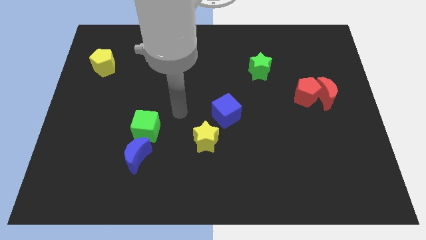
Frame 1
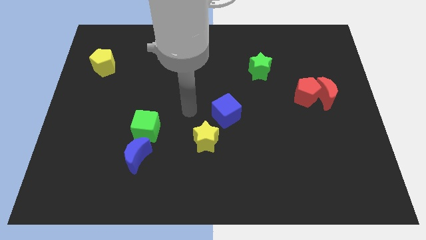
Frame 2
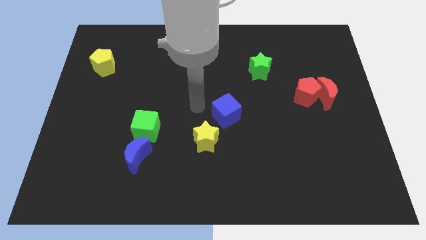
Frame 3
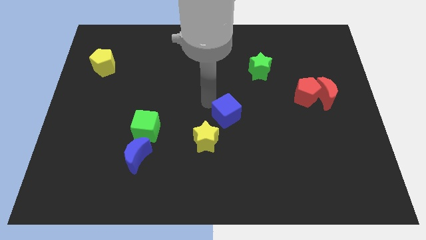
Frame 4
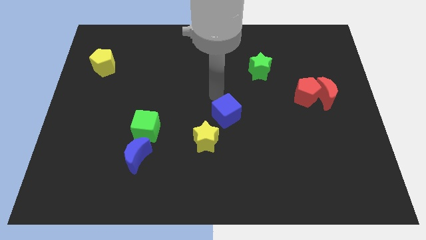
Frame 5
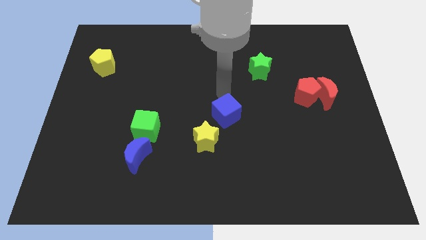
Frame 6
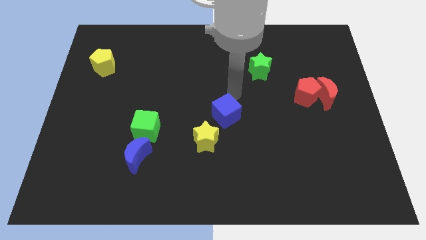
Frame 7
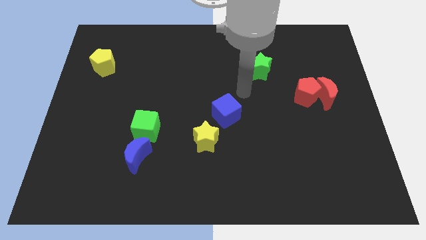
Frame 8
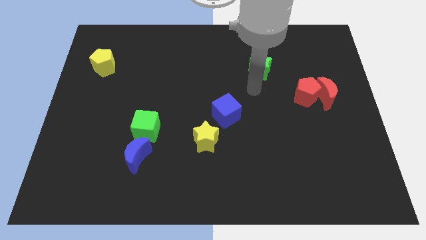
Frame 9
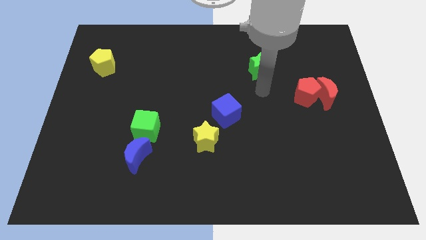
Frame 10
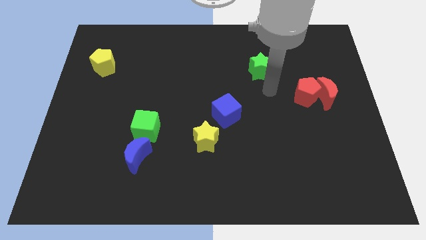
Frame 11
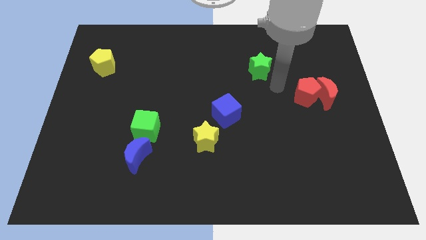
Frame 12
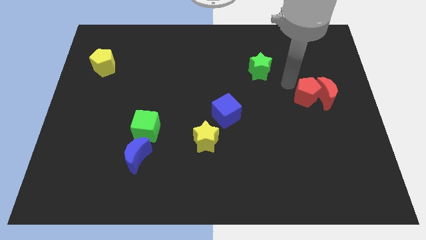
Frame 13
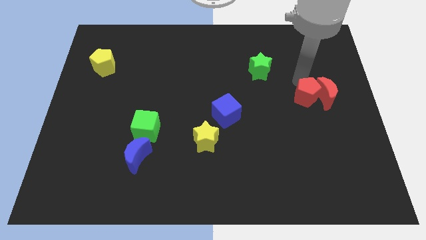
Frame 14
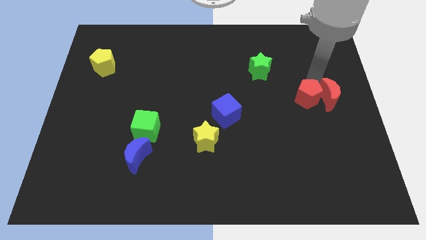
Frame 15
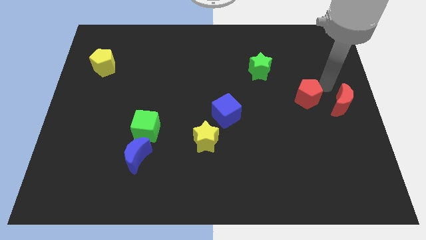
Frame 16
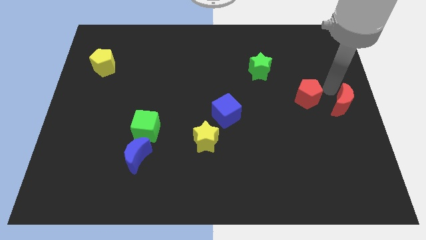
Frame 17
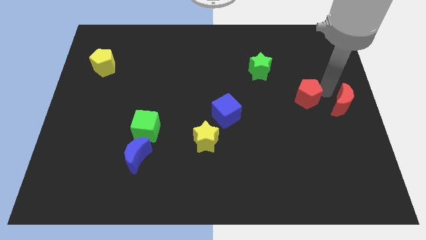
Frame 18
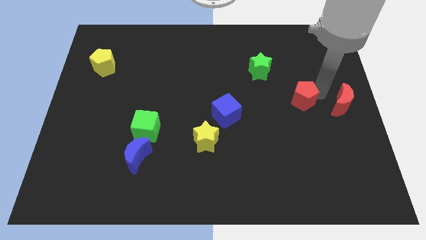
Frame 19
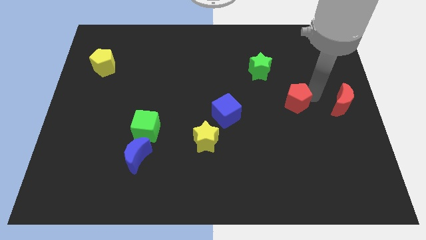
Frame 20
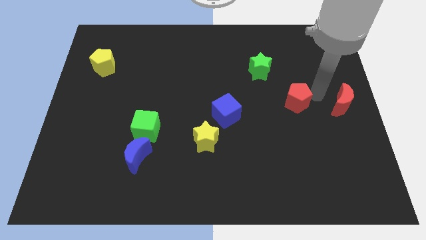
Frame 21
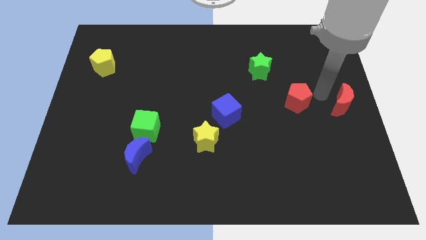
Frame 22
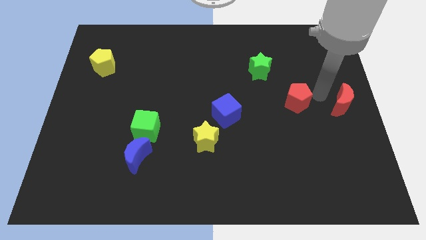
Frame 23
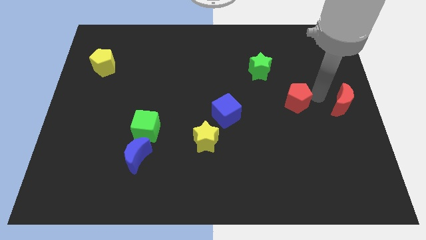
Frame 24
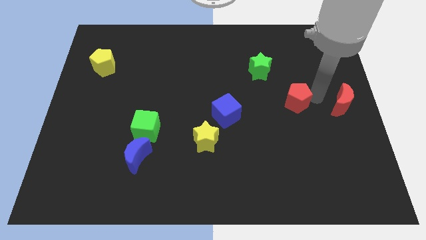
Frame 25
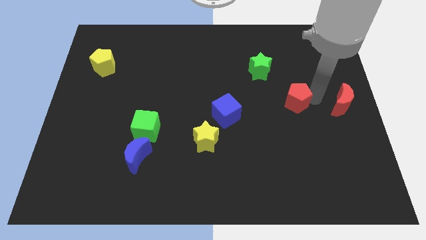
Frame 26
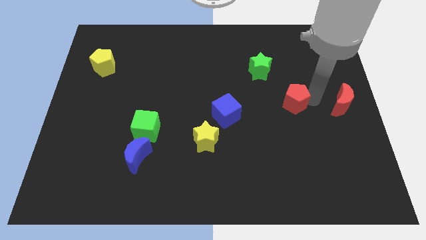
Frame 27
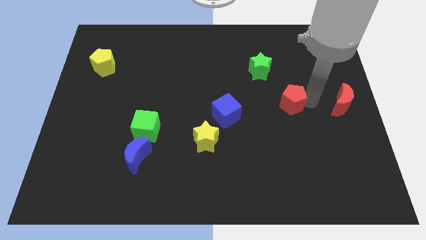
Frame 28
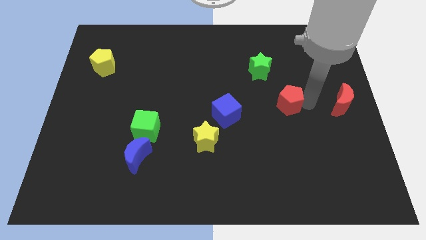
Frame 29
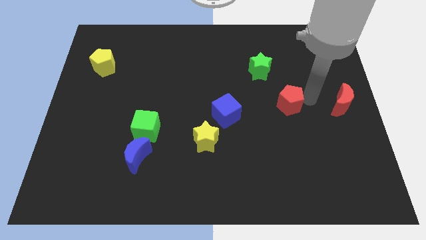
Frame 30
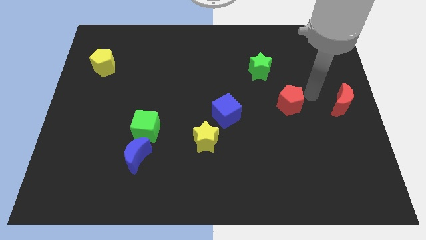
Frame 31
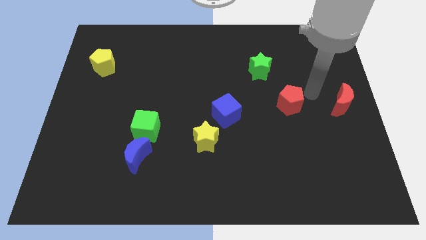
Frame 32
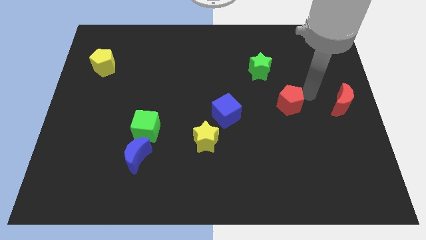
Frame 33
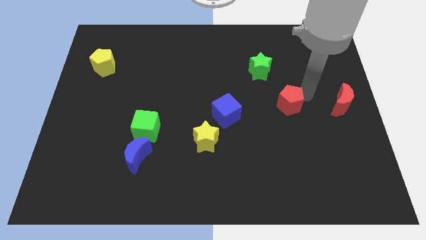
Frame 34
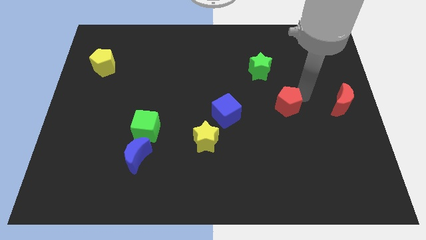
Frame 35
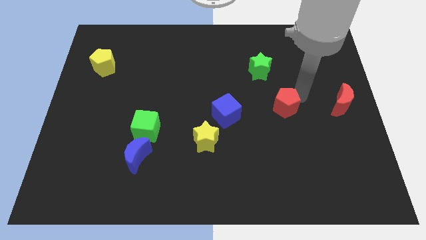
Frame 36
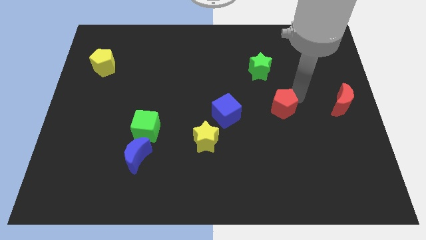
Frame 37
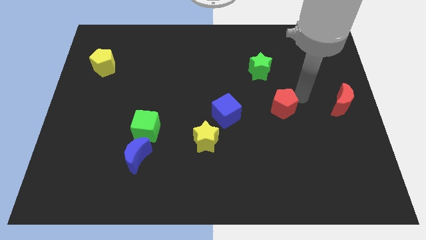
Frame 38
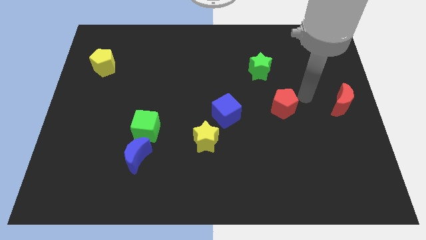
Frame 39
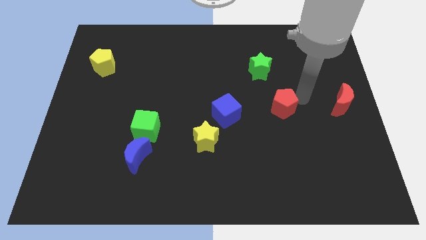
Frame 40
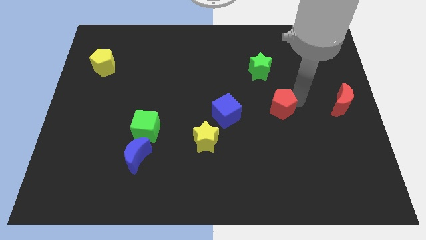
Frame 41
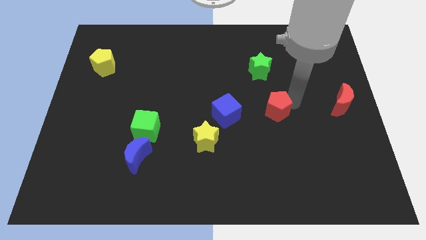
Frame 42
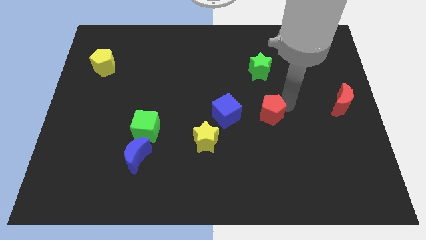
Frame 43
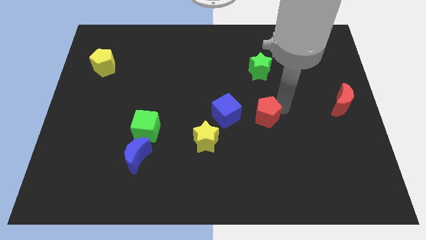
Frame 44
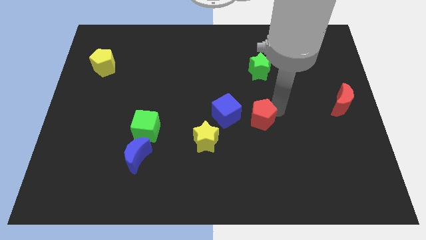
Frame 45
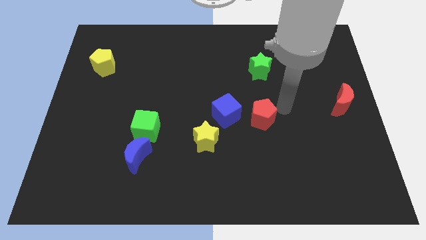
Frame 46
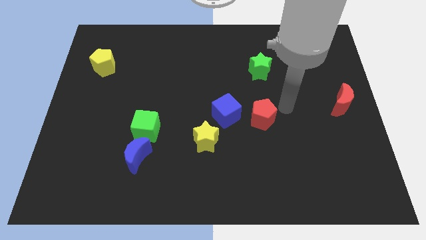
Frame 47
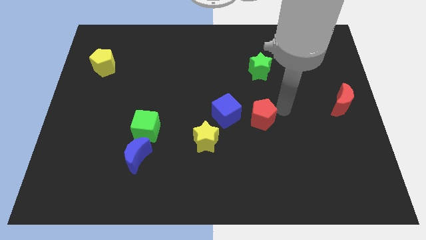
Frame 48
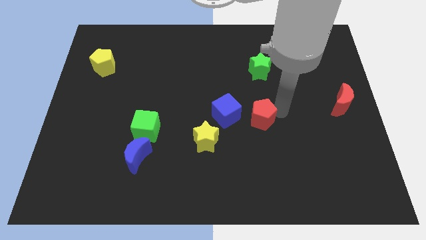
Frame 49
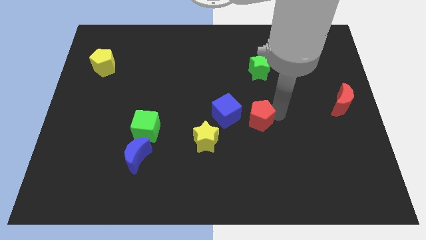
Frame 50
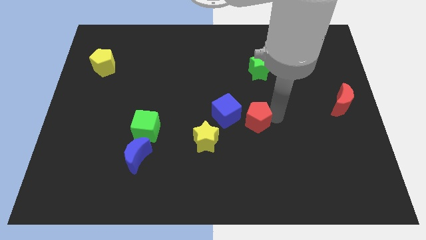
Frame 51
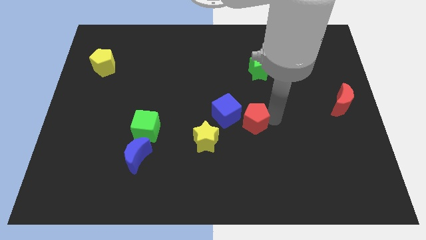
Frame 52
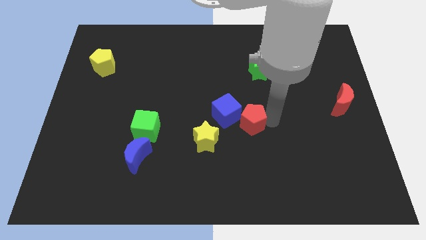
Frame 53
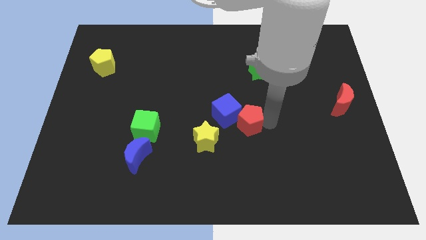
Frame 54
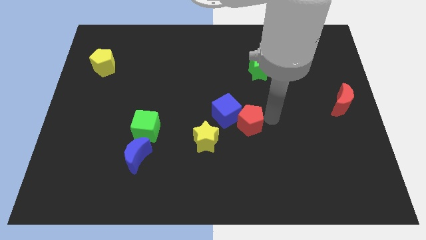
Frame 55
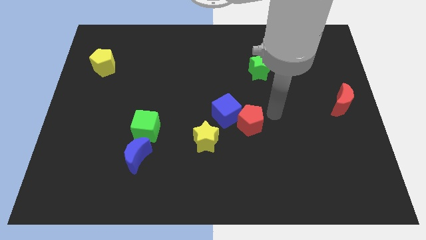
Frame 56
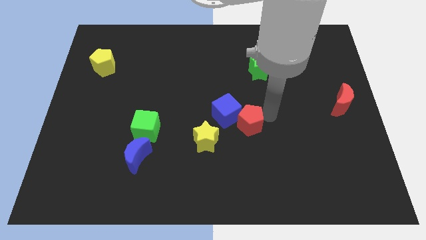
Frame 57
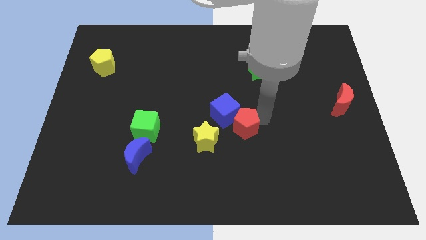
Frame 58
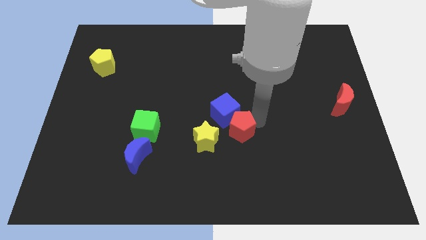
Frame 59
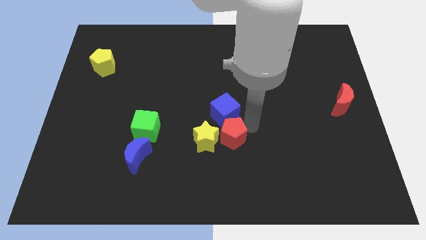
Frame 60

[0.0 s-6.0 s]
push the red pentagon next to the yellow star

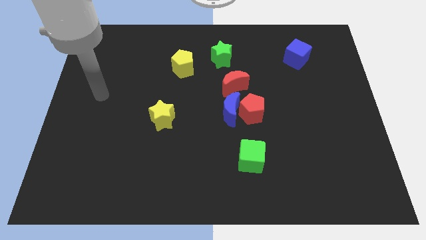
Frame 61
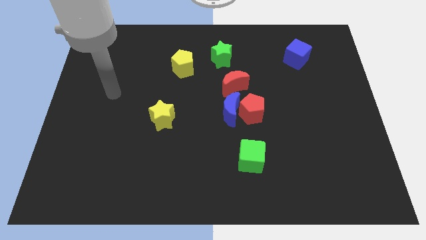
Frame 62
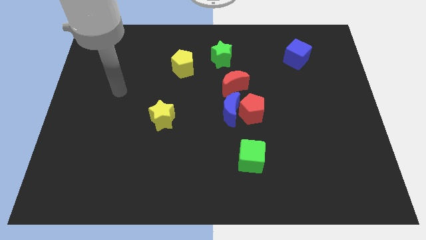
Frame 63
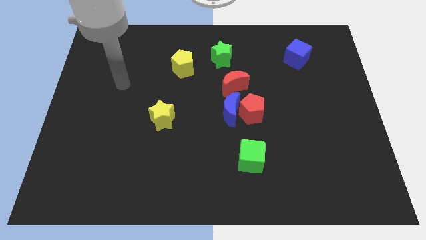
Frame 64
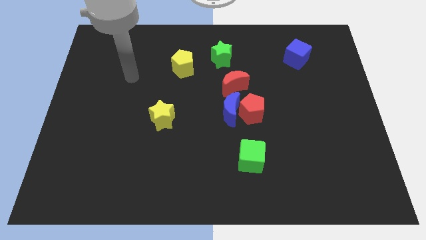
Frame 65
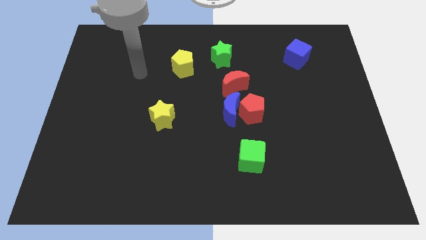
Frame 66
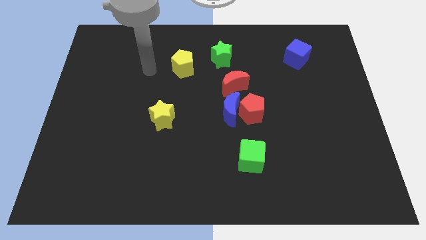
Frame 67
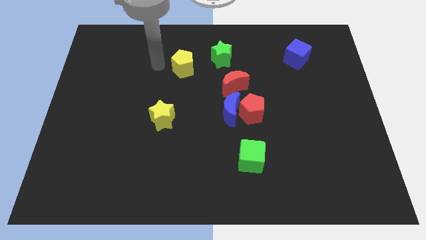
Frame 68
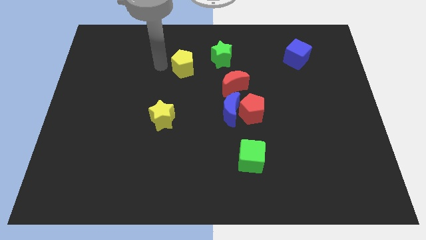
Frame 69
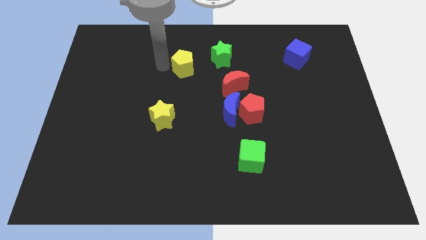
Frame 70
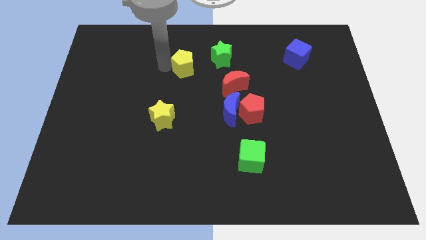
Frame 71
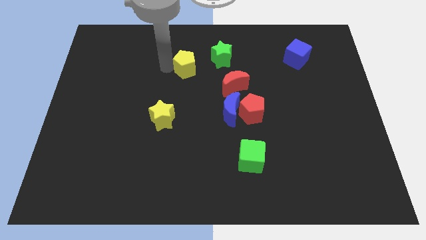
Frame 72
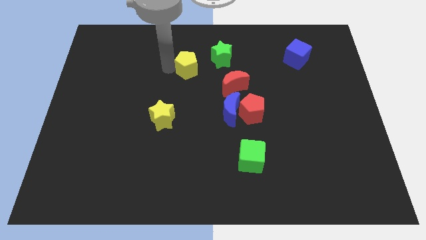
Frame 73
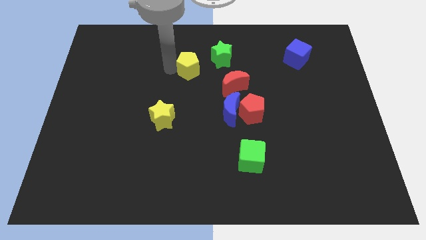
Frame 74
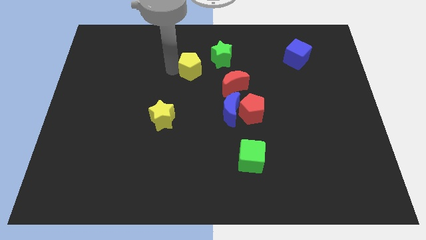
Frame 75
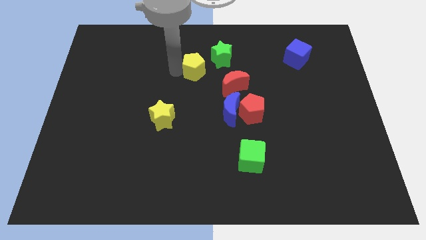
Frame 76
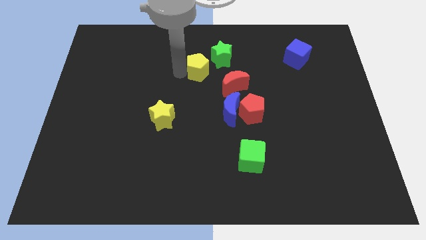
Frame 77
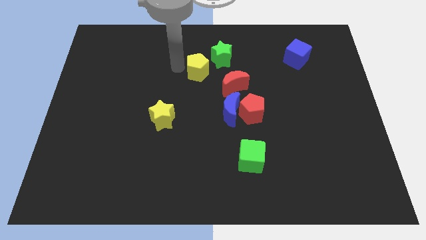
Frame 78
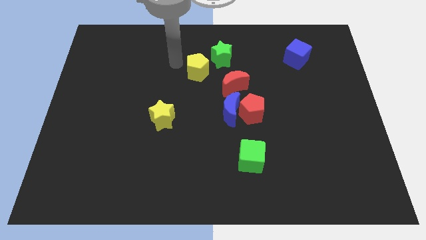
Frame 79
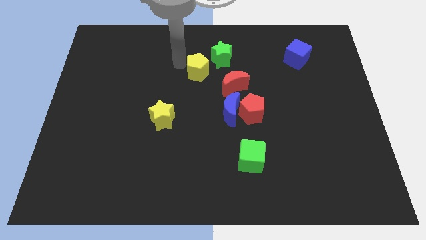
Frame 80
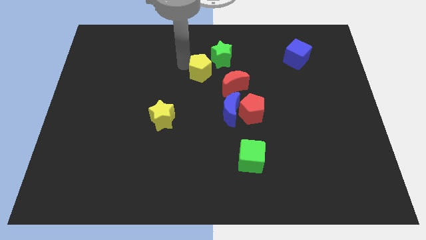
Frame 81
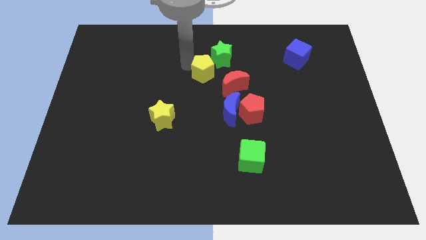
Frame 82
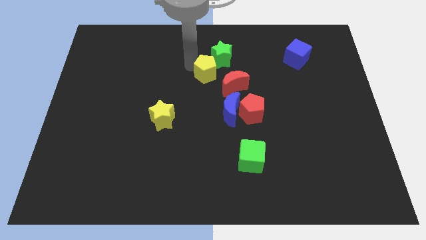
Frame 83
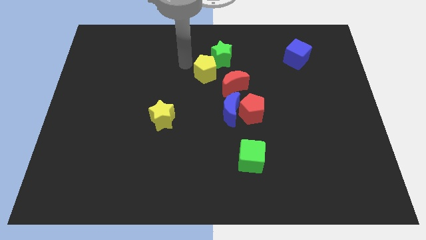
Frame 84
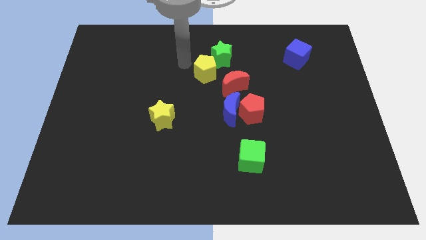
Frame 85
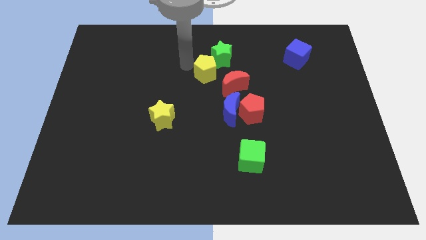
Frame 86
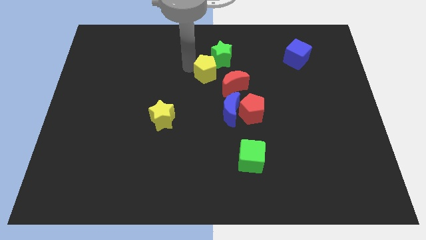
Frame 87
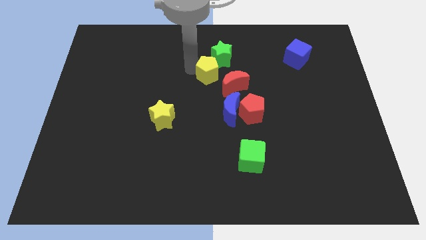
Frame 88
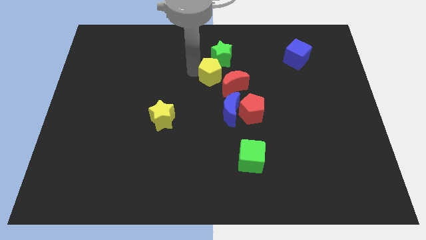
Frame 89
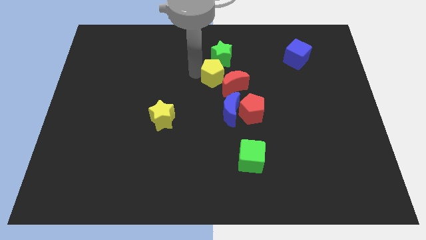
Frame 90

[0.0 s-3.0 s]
move the yellow pentagon towards the red moon
